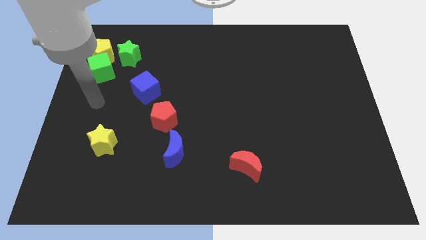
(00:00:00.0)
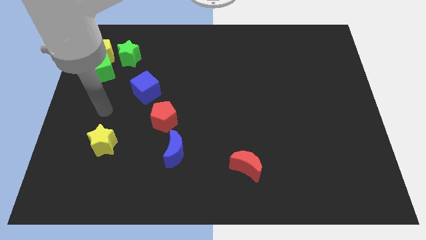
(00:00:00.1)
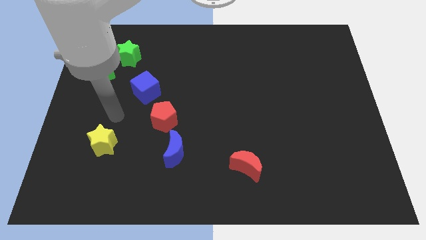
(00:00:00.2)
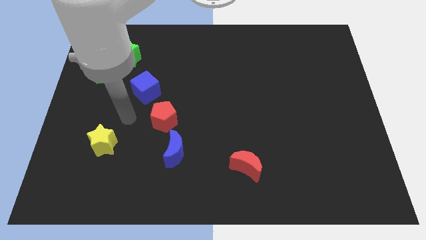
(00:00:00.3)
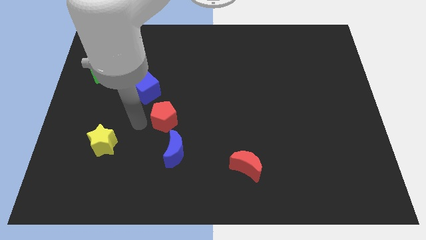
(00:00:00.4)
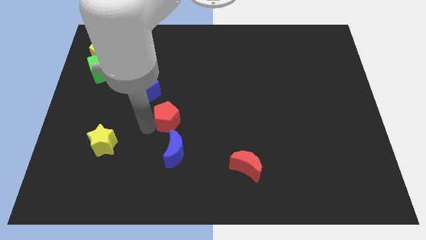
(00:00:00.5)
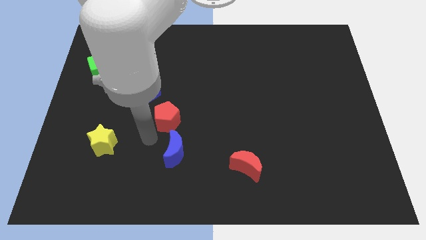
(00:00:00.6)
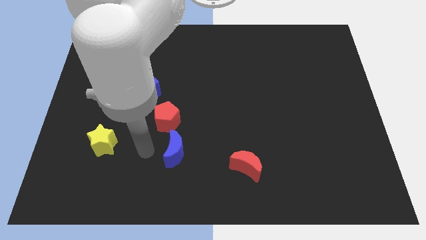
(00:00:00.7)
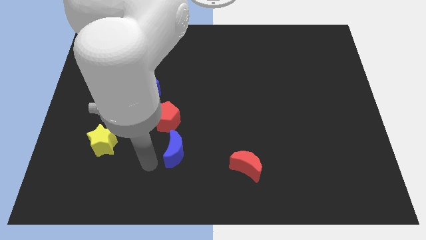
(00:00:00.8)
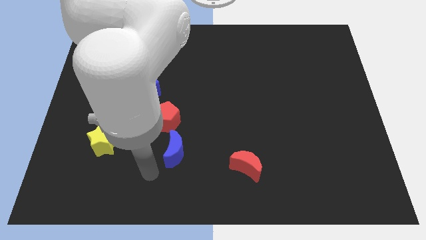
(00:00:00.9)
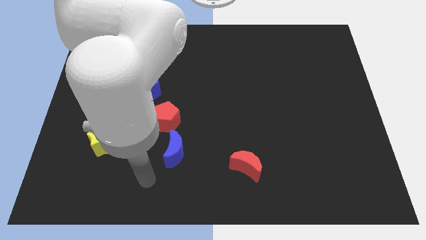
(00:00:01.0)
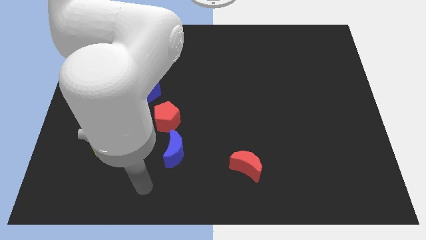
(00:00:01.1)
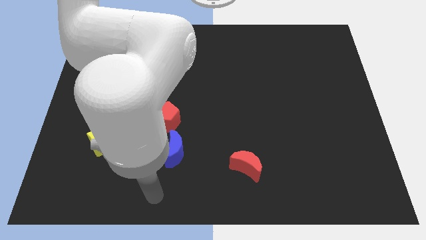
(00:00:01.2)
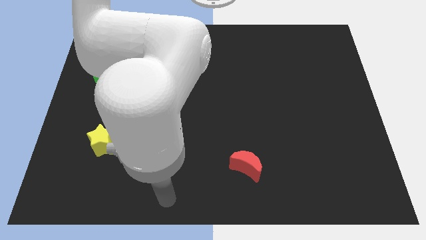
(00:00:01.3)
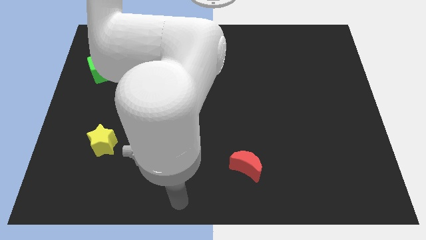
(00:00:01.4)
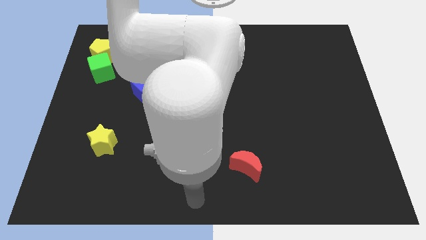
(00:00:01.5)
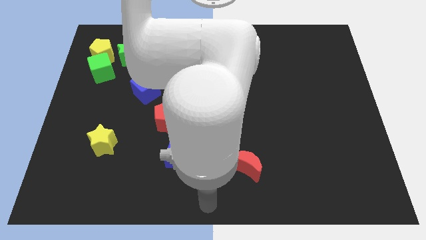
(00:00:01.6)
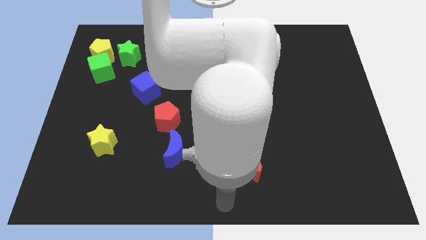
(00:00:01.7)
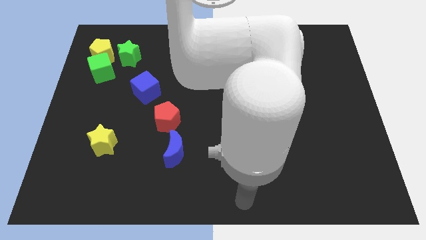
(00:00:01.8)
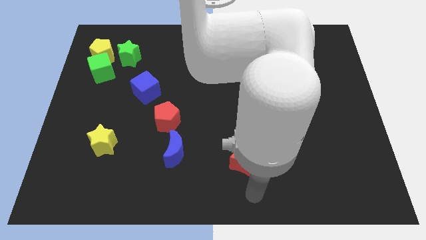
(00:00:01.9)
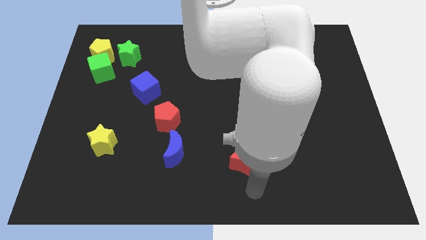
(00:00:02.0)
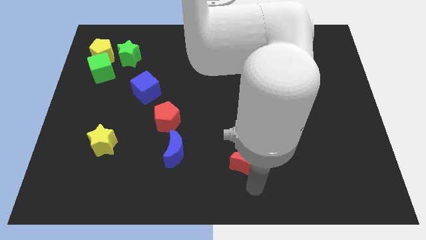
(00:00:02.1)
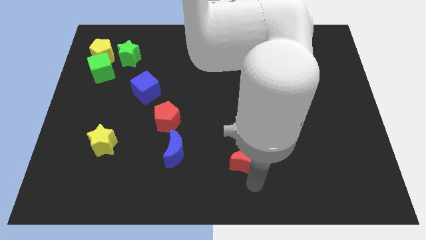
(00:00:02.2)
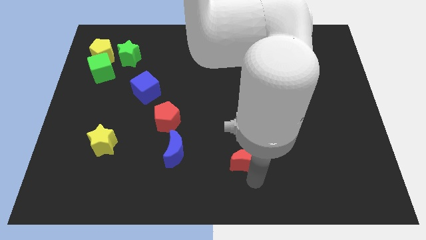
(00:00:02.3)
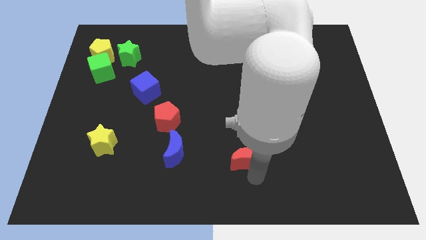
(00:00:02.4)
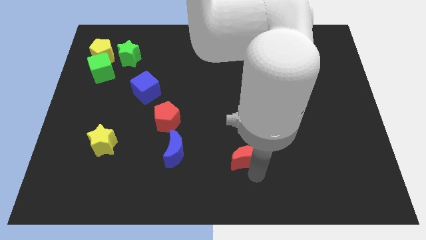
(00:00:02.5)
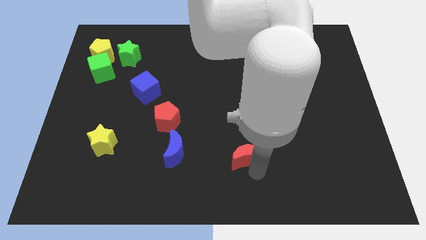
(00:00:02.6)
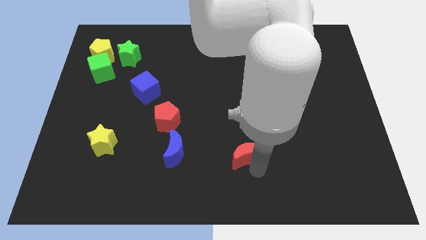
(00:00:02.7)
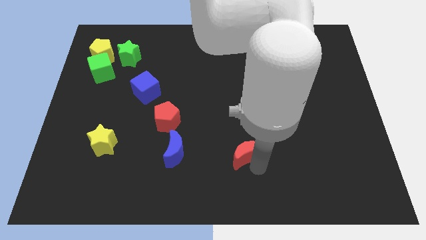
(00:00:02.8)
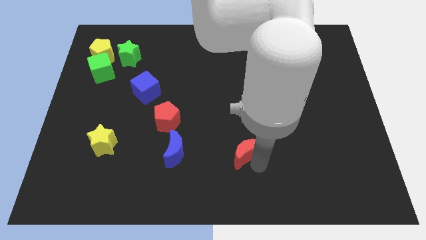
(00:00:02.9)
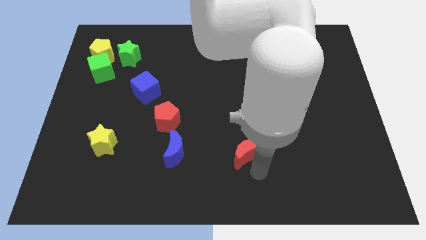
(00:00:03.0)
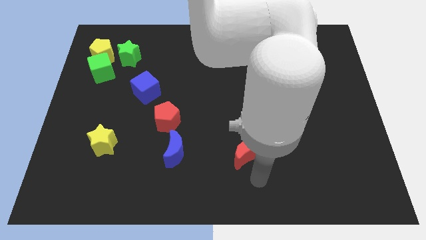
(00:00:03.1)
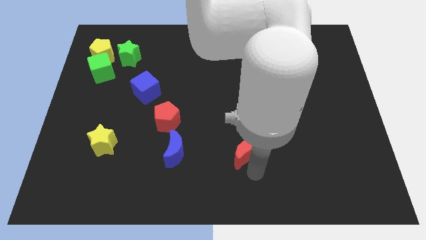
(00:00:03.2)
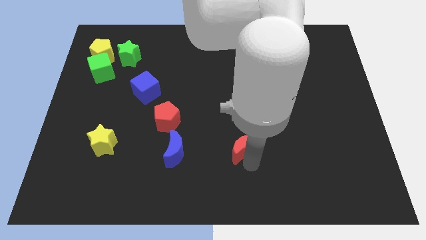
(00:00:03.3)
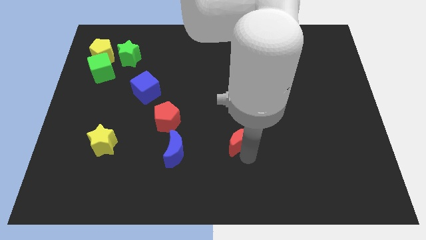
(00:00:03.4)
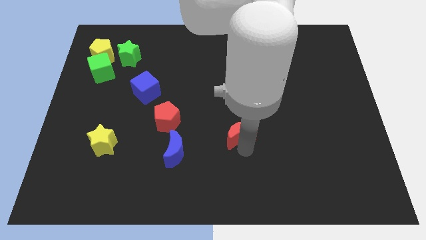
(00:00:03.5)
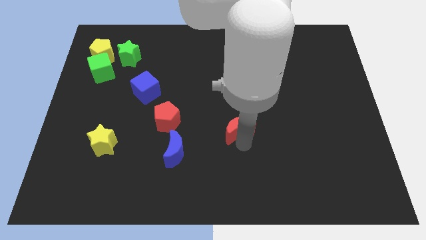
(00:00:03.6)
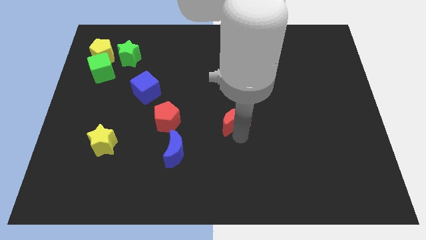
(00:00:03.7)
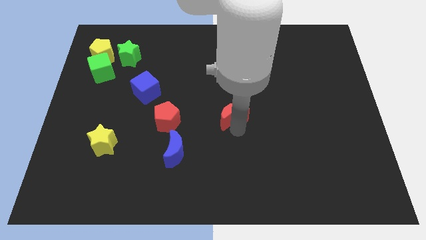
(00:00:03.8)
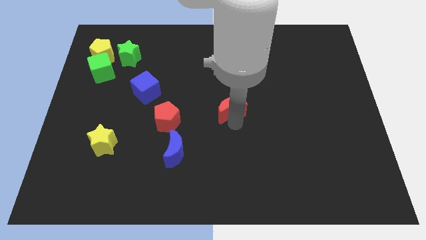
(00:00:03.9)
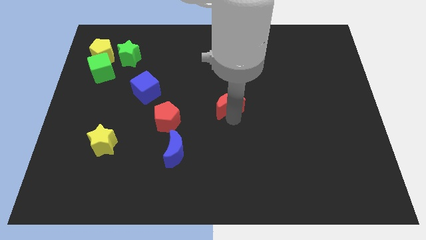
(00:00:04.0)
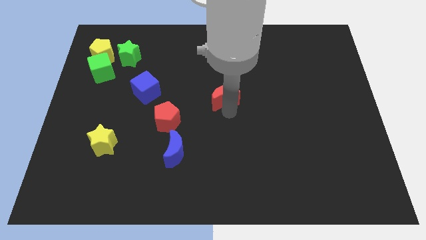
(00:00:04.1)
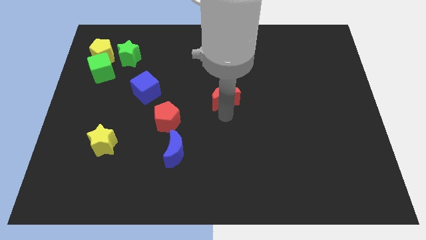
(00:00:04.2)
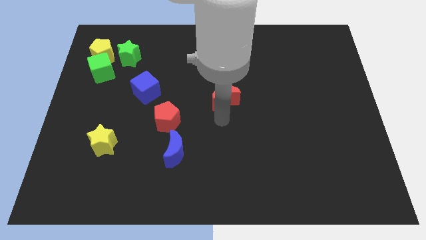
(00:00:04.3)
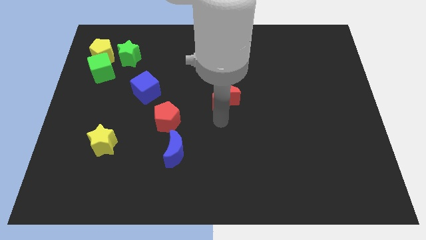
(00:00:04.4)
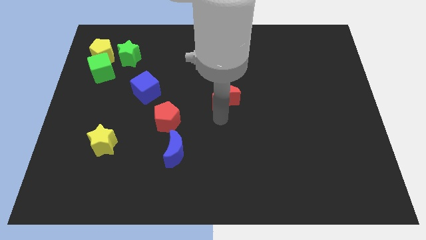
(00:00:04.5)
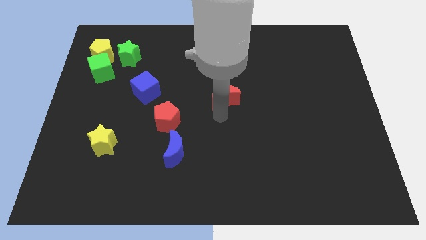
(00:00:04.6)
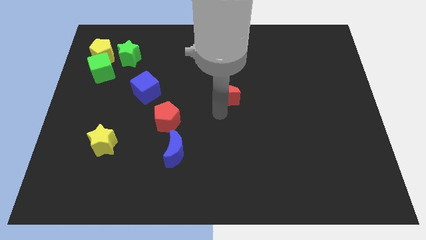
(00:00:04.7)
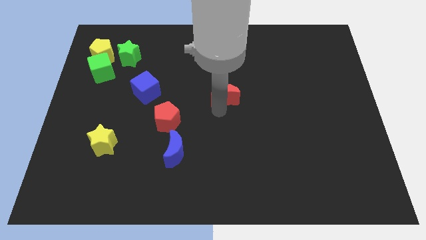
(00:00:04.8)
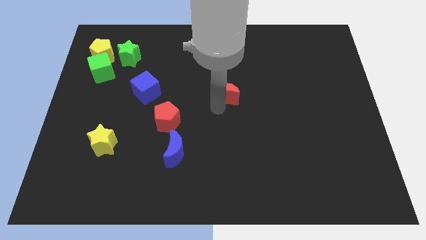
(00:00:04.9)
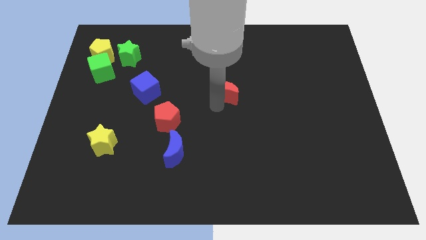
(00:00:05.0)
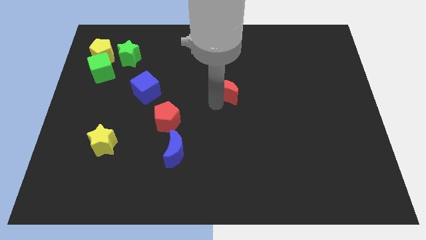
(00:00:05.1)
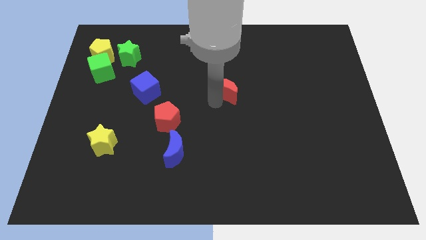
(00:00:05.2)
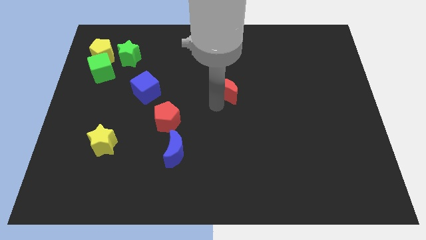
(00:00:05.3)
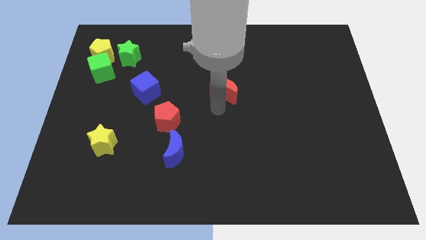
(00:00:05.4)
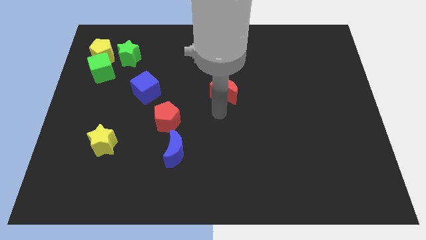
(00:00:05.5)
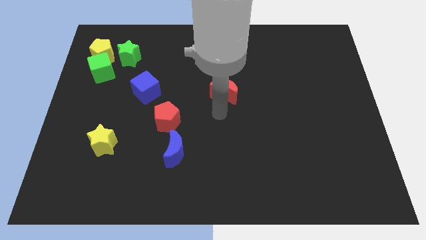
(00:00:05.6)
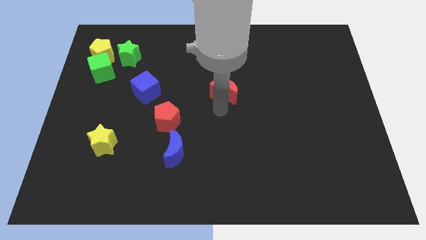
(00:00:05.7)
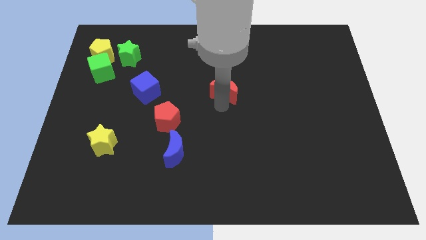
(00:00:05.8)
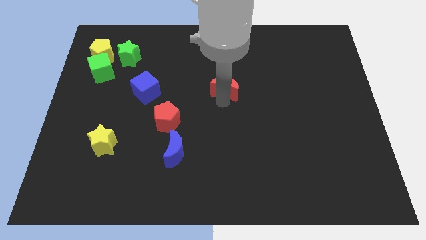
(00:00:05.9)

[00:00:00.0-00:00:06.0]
slide the red moon upwards

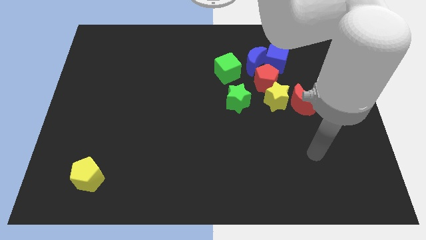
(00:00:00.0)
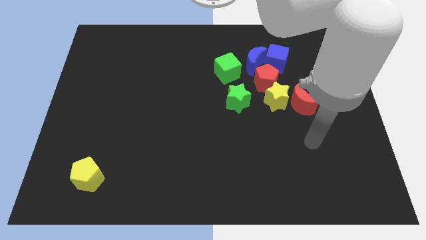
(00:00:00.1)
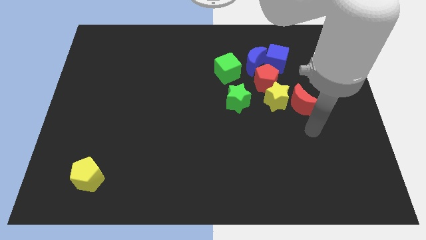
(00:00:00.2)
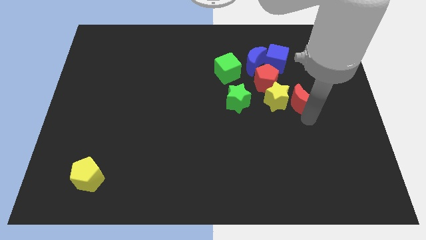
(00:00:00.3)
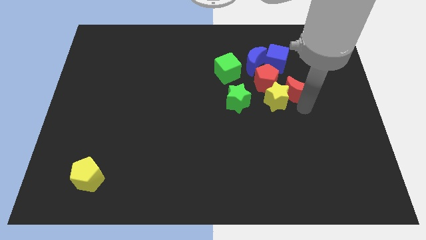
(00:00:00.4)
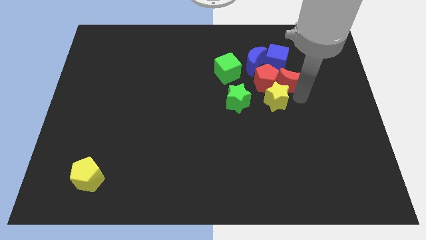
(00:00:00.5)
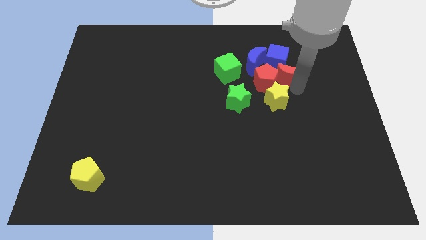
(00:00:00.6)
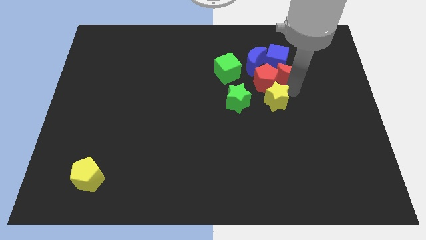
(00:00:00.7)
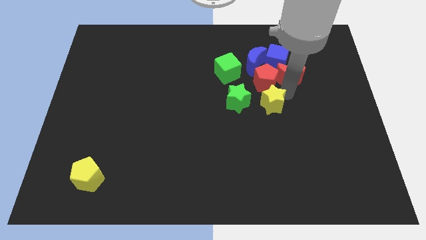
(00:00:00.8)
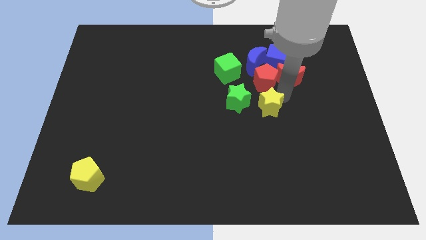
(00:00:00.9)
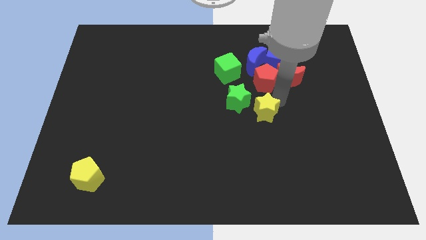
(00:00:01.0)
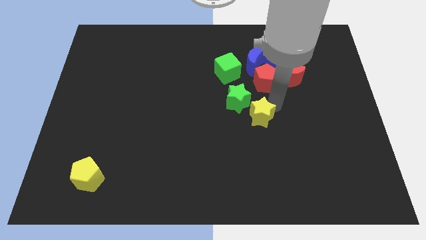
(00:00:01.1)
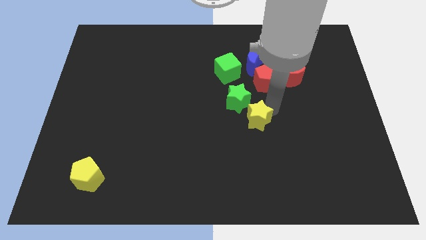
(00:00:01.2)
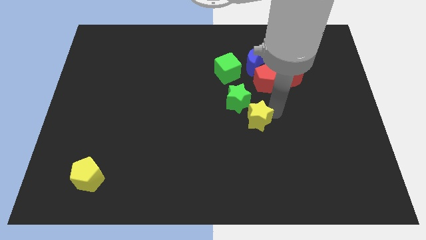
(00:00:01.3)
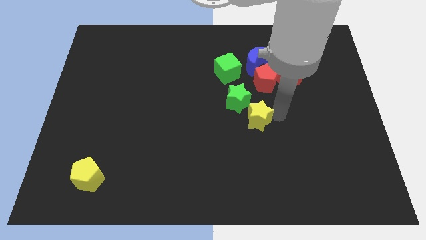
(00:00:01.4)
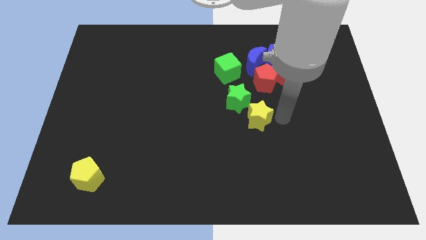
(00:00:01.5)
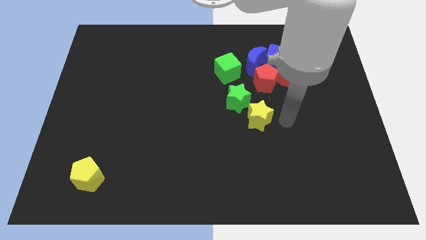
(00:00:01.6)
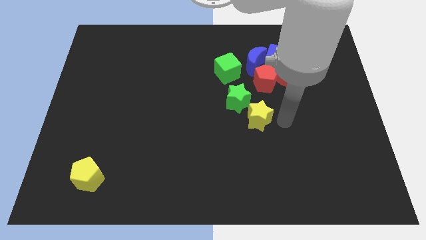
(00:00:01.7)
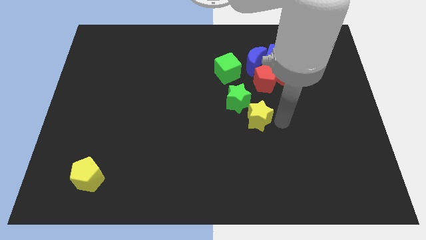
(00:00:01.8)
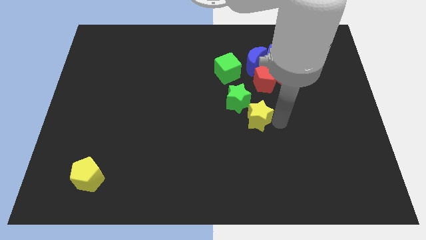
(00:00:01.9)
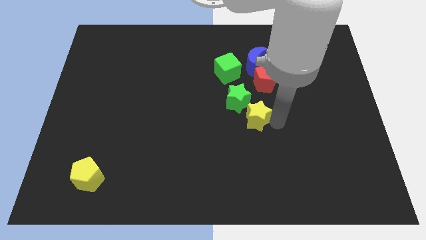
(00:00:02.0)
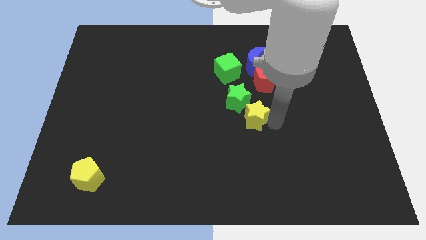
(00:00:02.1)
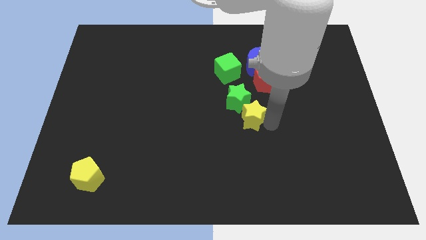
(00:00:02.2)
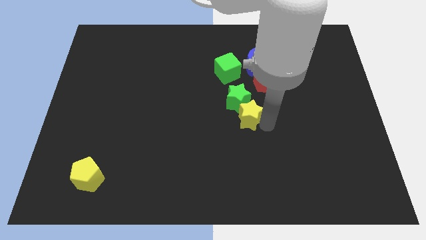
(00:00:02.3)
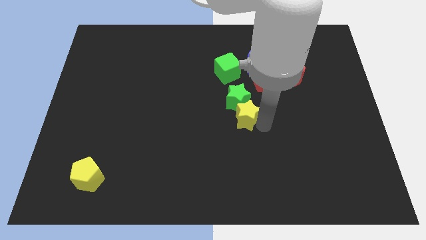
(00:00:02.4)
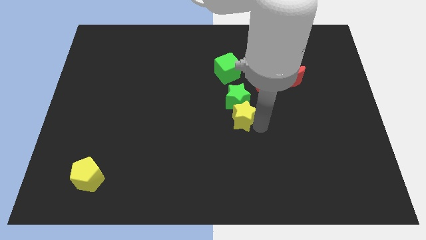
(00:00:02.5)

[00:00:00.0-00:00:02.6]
slightly push the yellow star to the left
